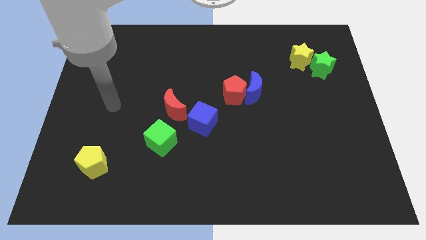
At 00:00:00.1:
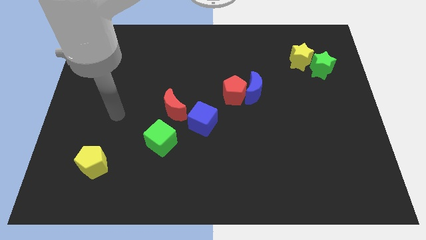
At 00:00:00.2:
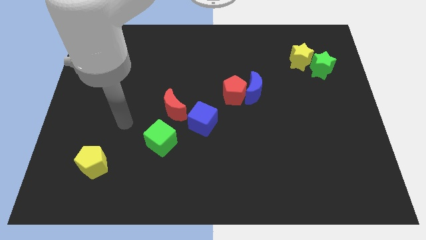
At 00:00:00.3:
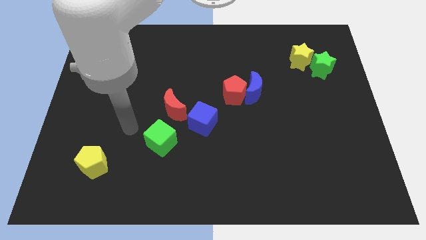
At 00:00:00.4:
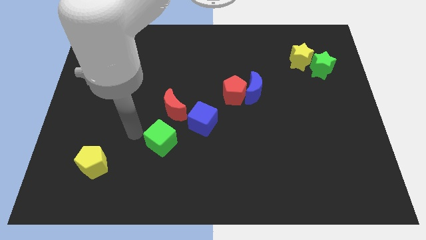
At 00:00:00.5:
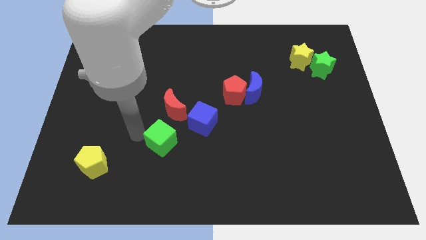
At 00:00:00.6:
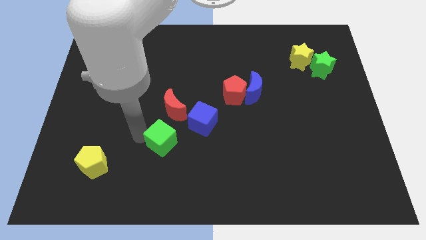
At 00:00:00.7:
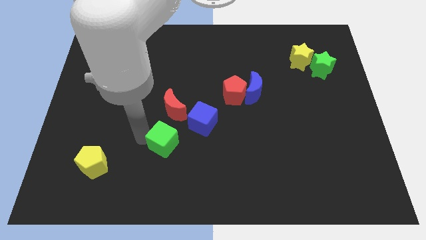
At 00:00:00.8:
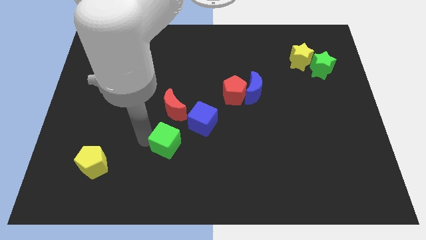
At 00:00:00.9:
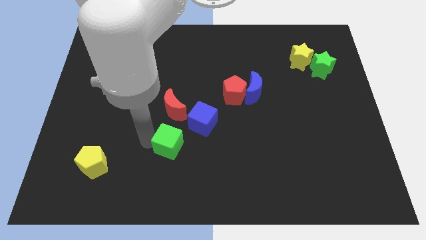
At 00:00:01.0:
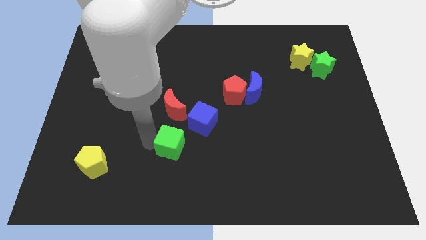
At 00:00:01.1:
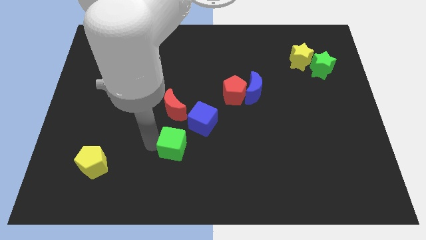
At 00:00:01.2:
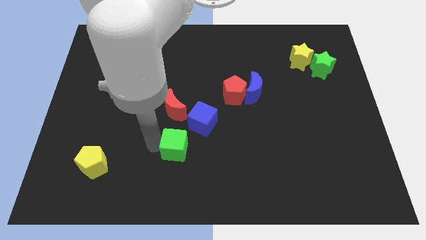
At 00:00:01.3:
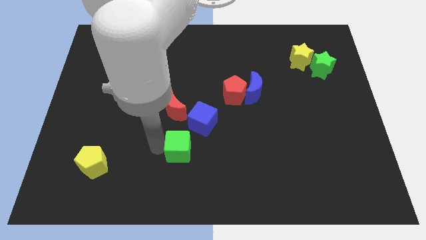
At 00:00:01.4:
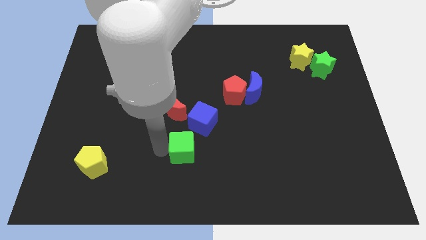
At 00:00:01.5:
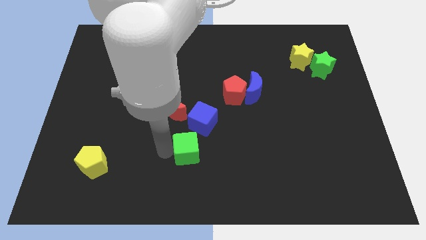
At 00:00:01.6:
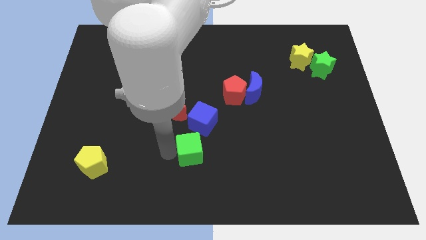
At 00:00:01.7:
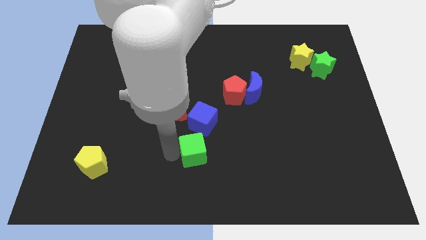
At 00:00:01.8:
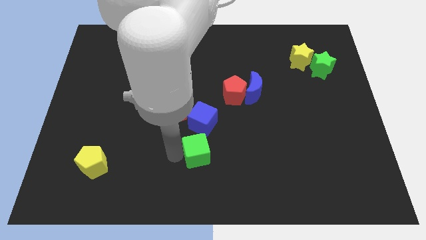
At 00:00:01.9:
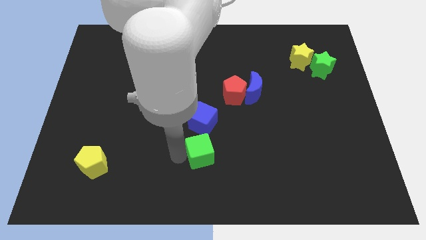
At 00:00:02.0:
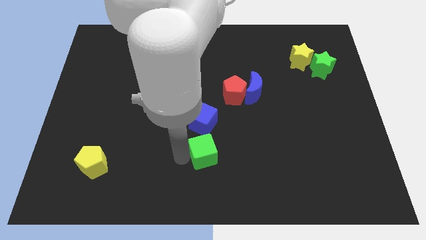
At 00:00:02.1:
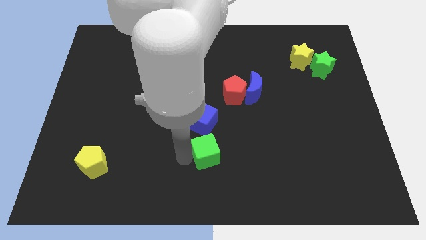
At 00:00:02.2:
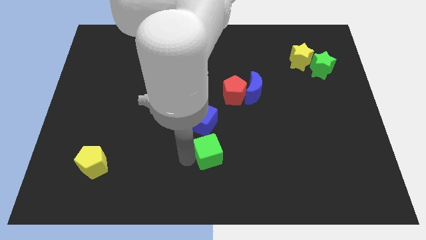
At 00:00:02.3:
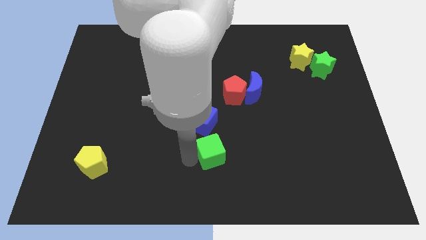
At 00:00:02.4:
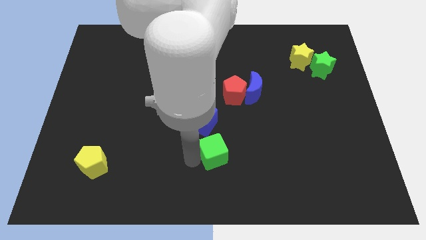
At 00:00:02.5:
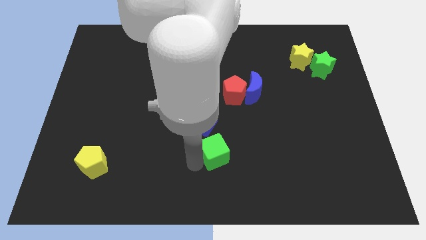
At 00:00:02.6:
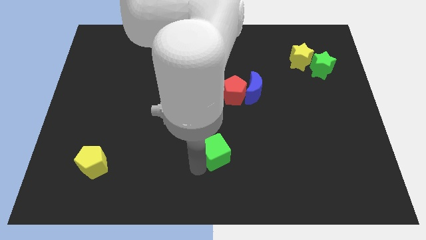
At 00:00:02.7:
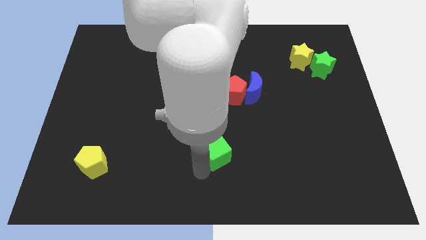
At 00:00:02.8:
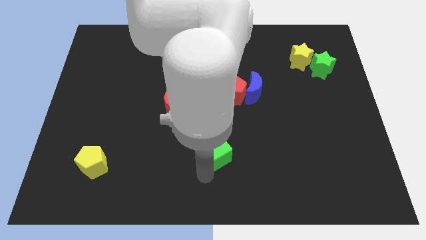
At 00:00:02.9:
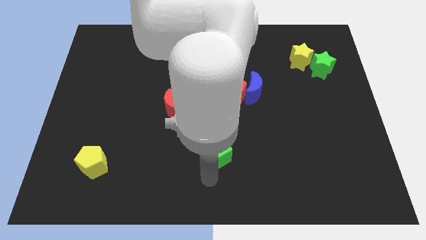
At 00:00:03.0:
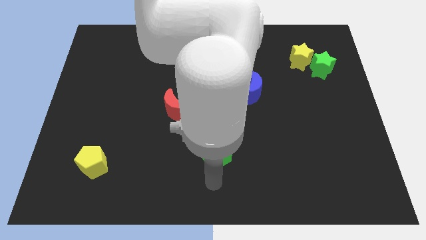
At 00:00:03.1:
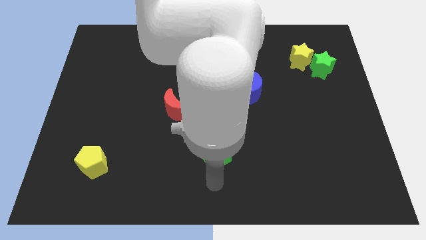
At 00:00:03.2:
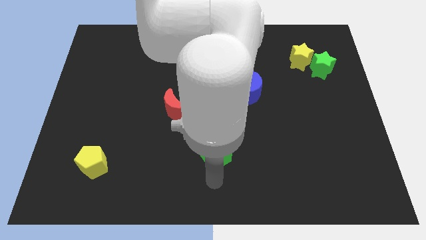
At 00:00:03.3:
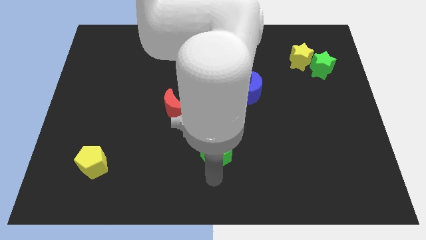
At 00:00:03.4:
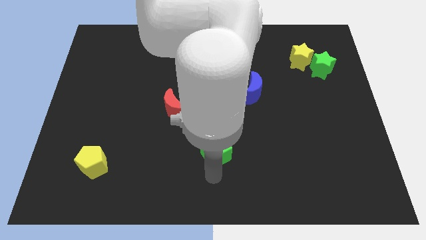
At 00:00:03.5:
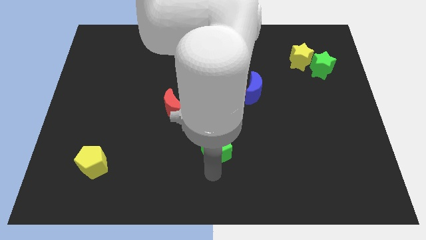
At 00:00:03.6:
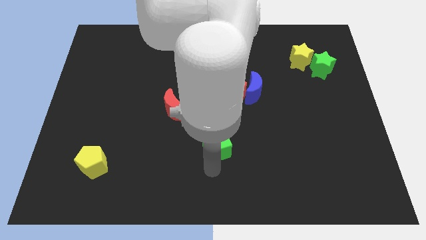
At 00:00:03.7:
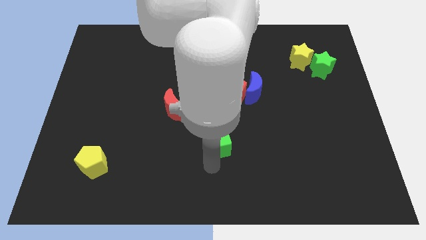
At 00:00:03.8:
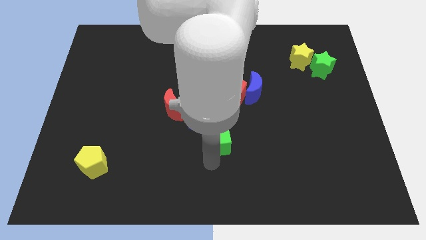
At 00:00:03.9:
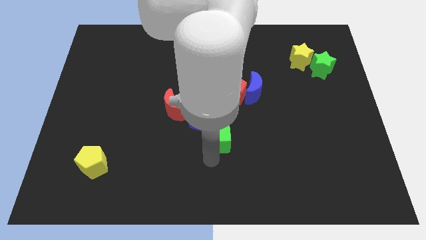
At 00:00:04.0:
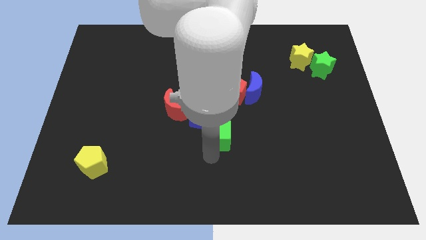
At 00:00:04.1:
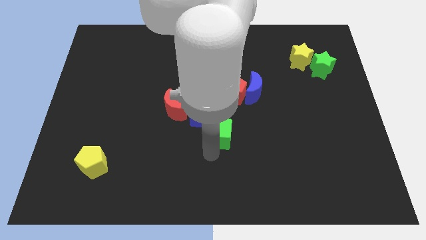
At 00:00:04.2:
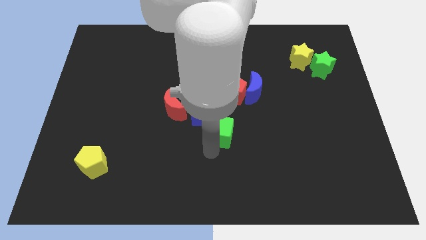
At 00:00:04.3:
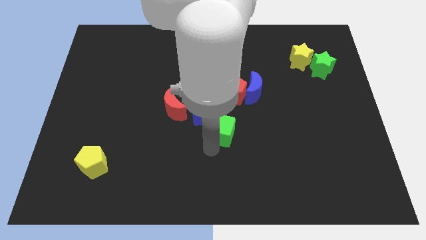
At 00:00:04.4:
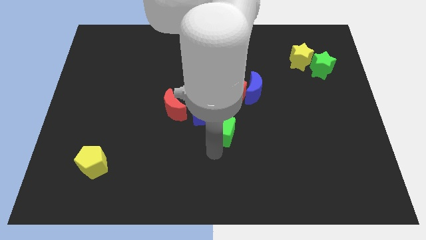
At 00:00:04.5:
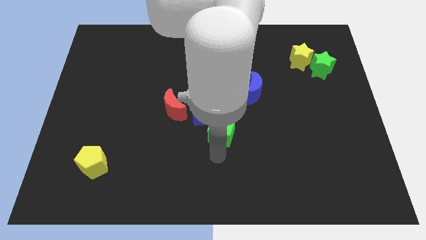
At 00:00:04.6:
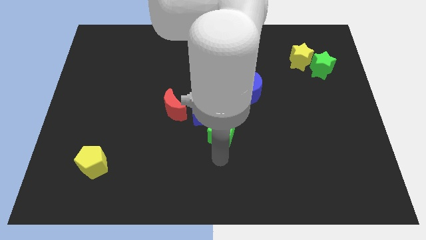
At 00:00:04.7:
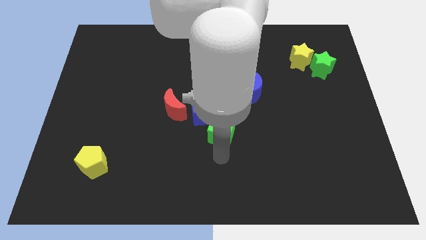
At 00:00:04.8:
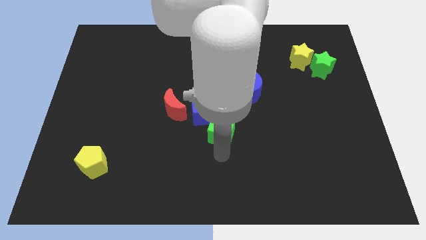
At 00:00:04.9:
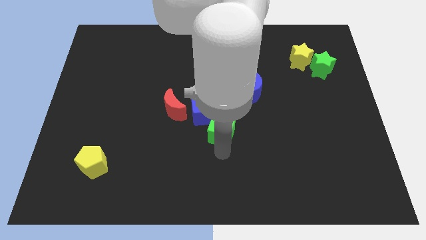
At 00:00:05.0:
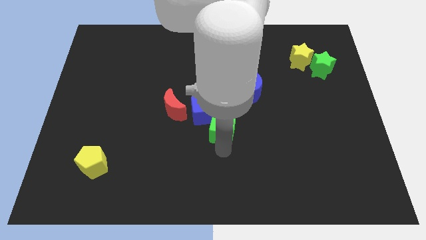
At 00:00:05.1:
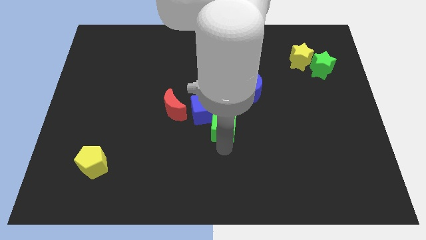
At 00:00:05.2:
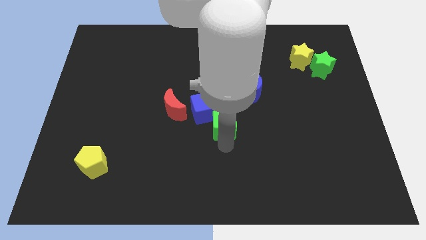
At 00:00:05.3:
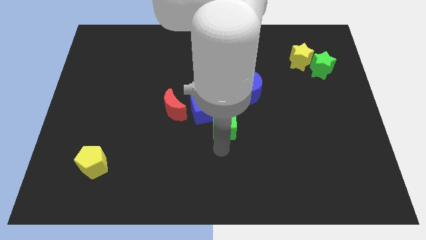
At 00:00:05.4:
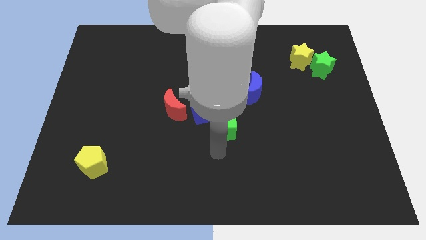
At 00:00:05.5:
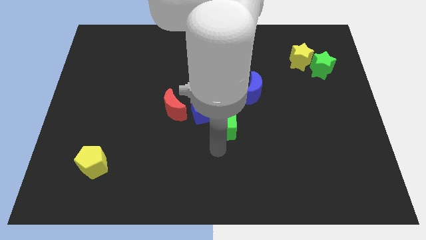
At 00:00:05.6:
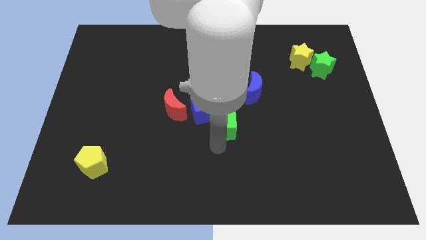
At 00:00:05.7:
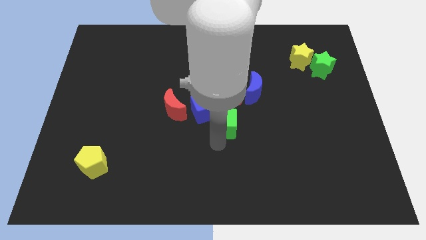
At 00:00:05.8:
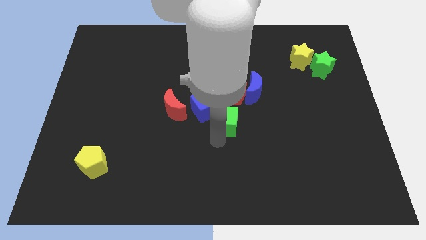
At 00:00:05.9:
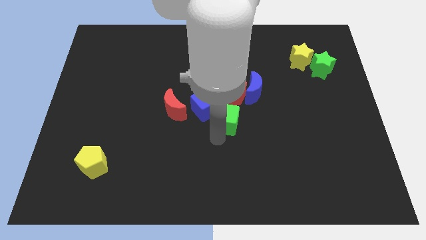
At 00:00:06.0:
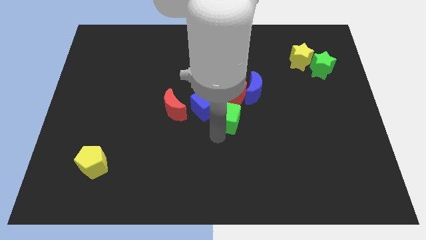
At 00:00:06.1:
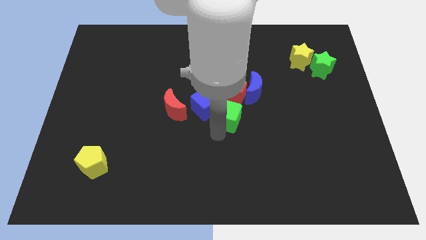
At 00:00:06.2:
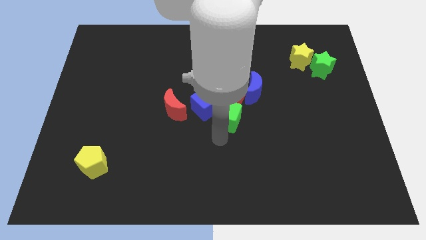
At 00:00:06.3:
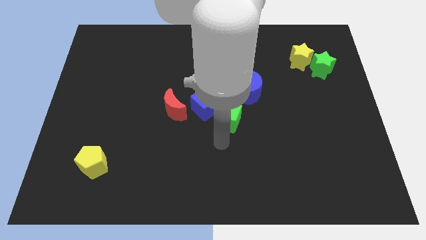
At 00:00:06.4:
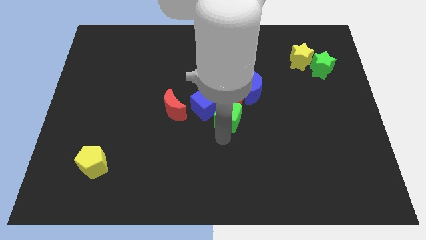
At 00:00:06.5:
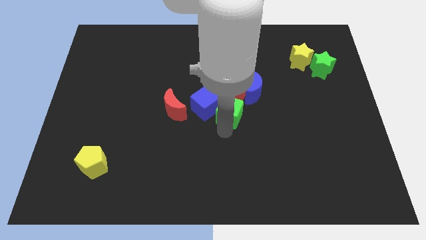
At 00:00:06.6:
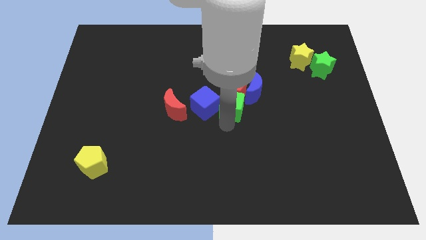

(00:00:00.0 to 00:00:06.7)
push the green cube close to the red pentagon
